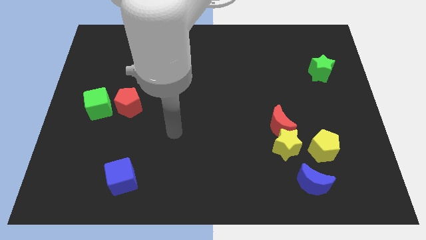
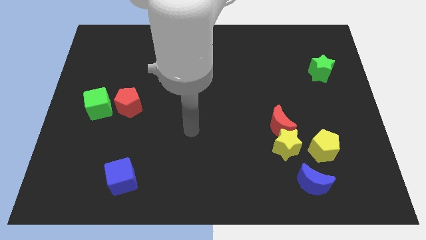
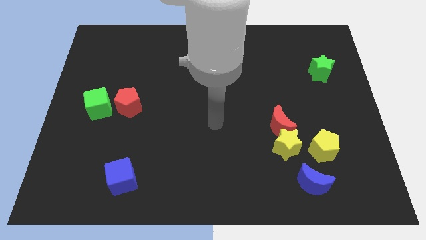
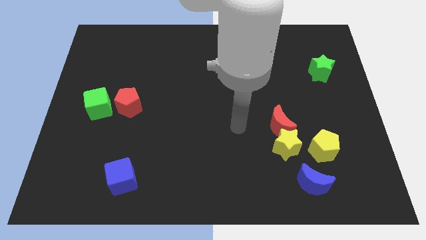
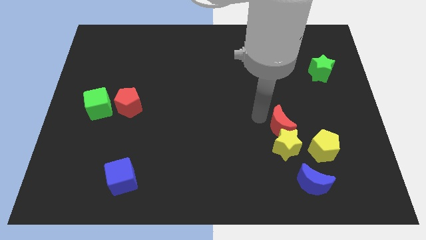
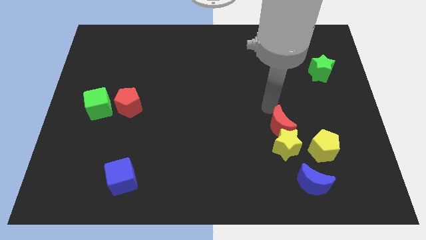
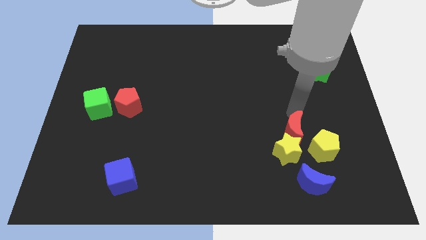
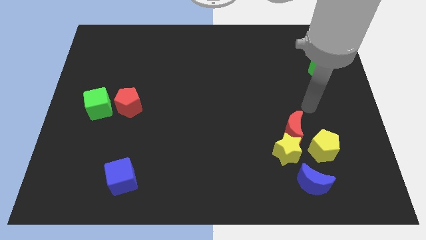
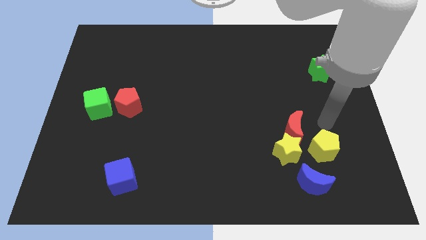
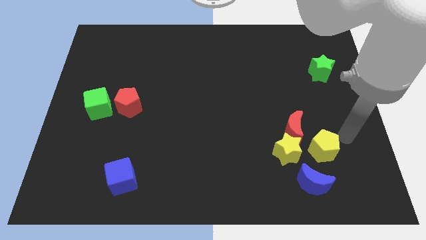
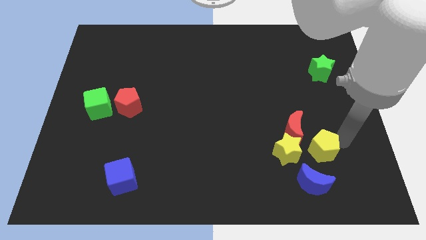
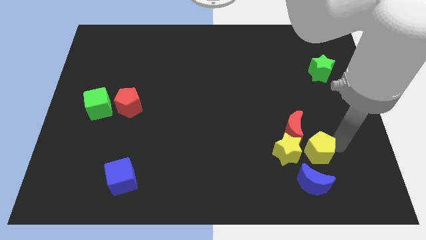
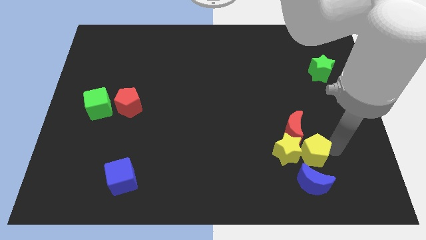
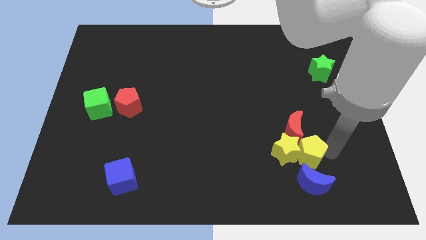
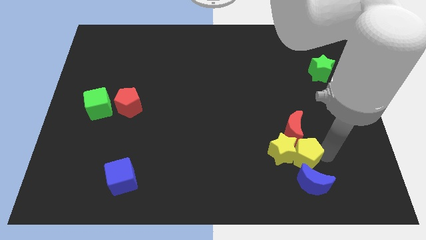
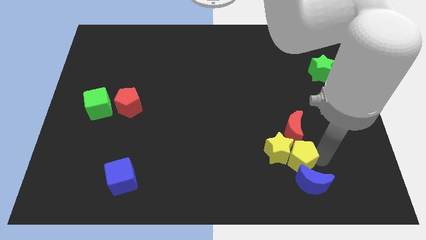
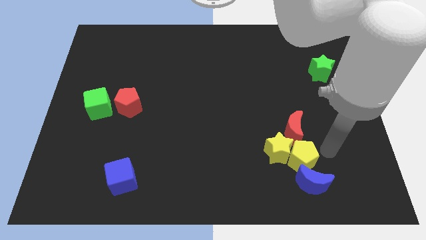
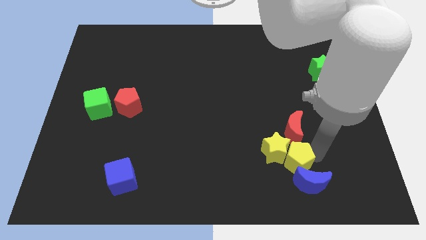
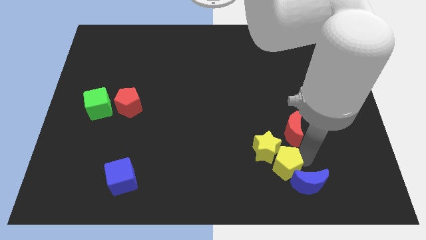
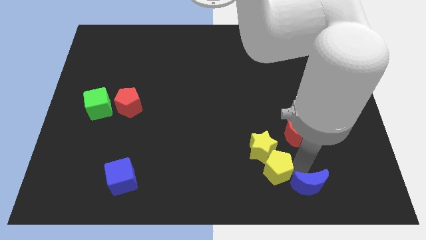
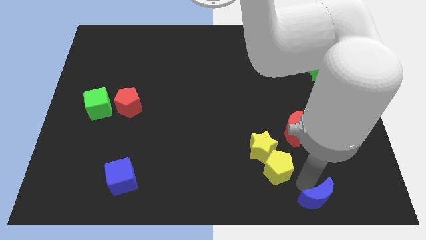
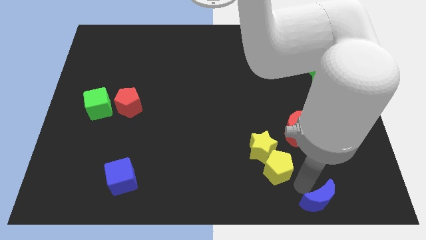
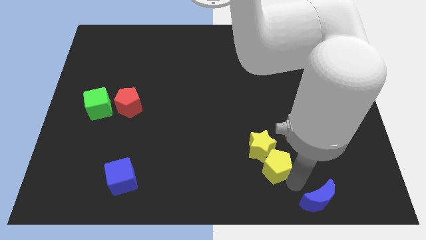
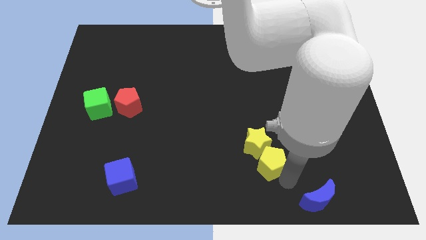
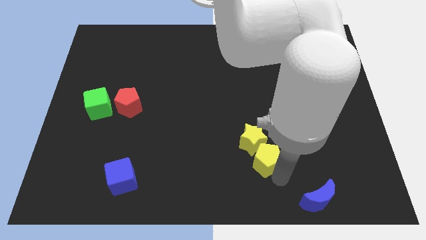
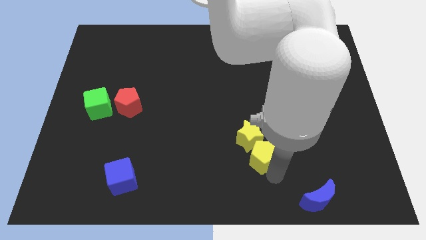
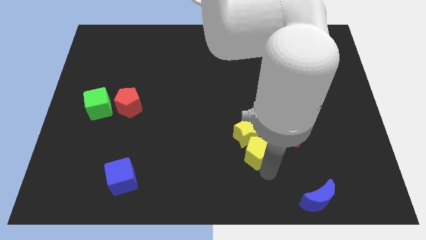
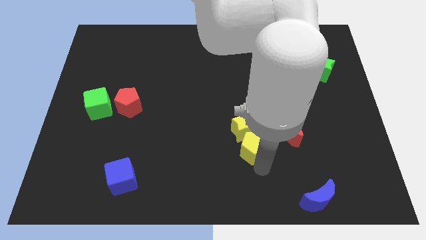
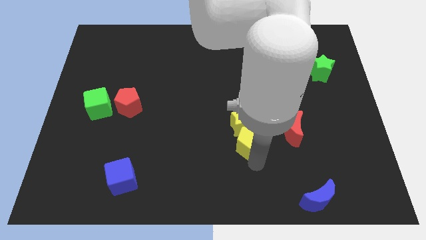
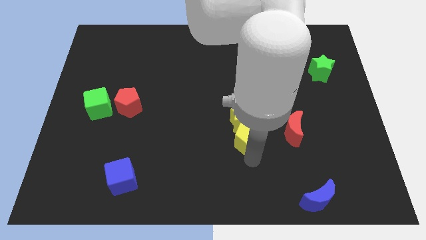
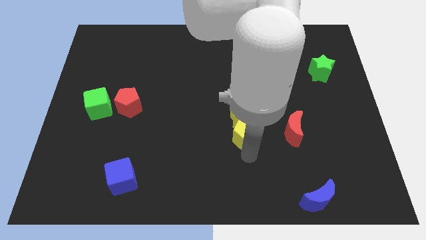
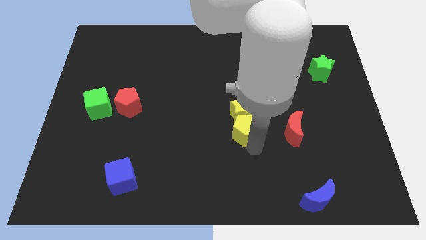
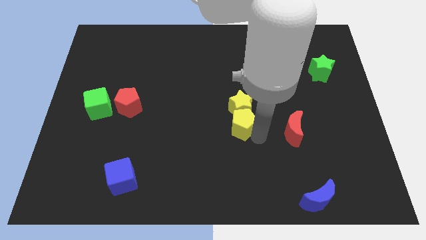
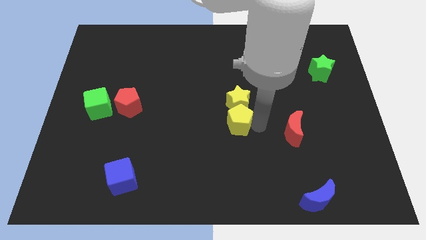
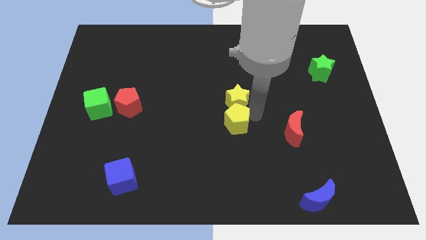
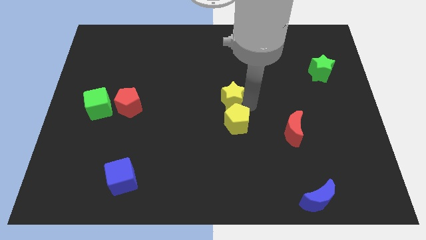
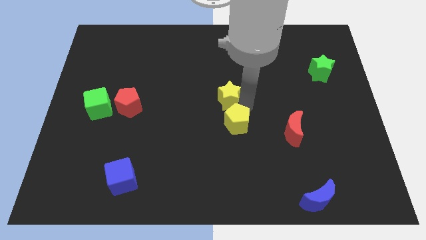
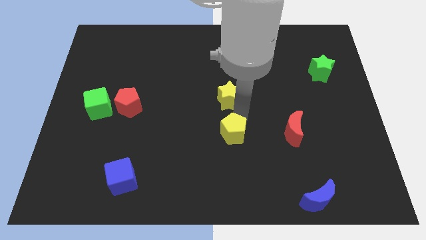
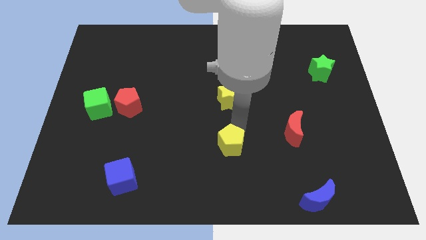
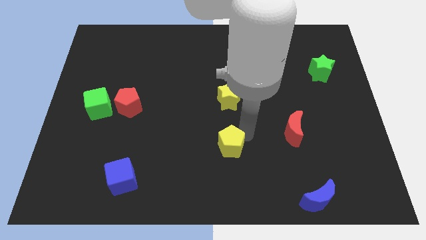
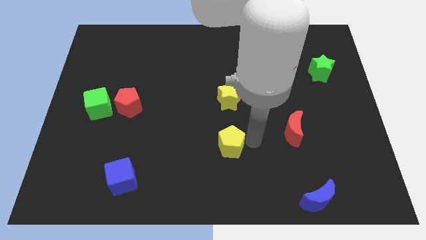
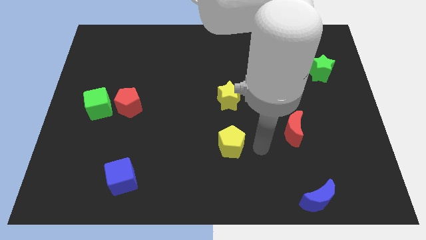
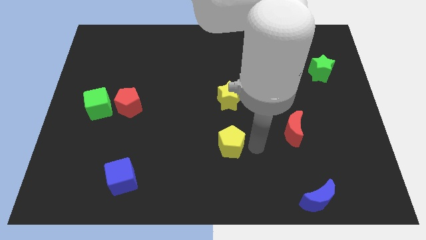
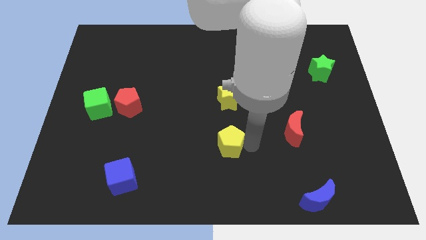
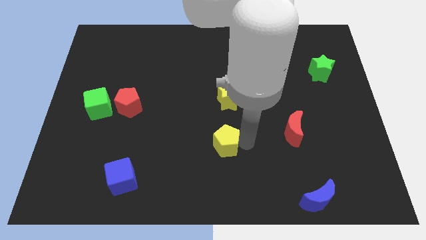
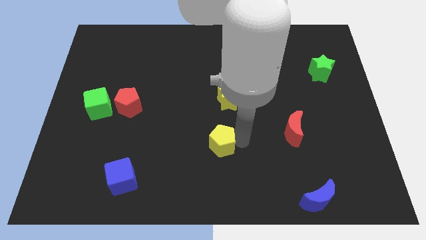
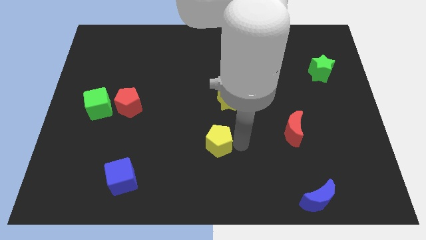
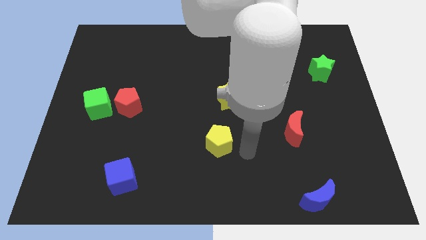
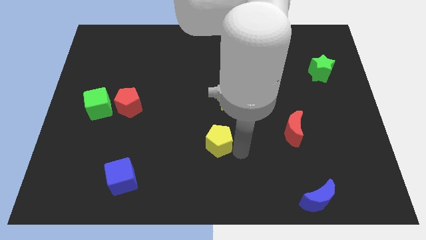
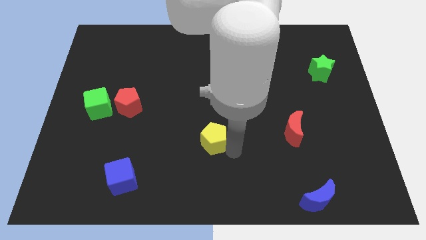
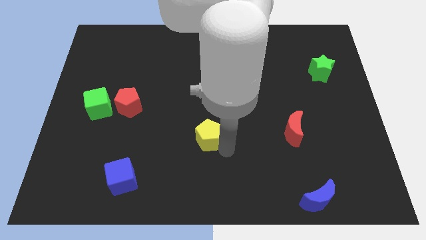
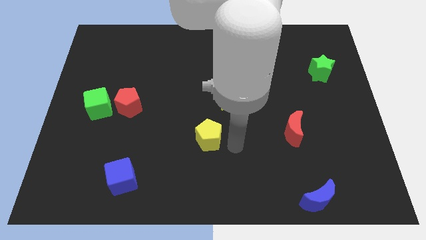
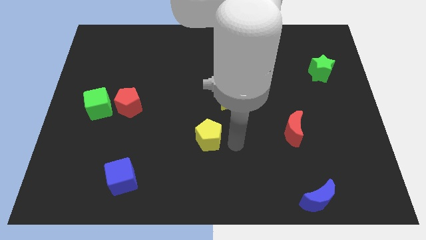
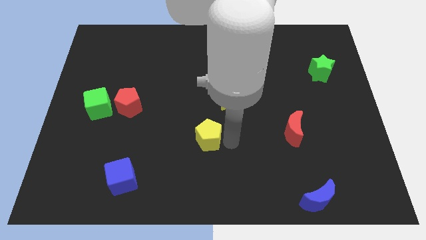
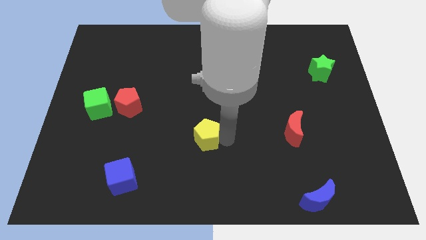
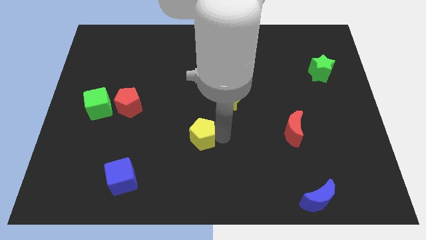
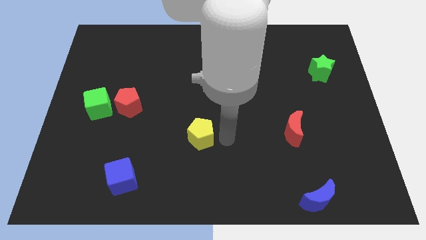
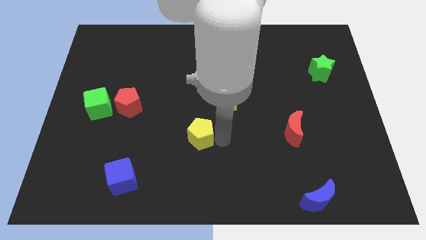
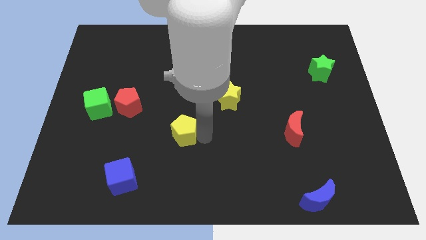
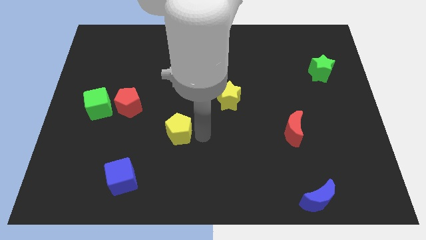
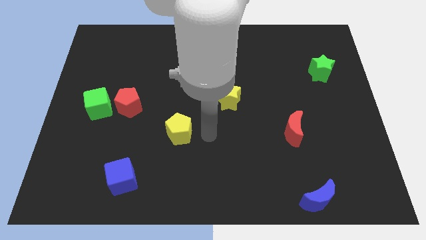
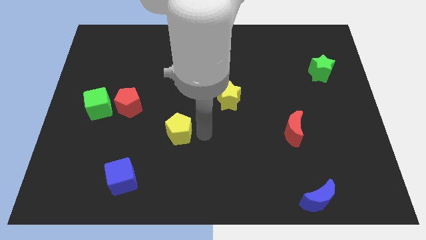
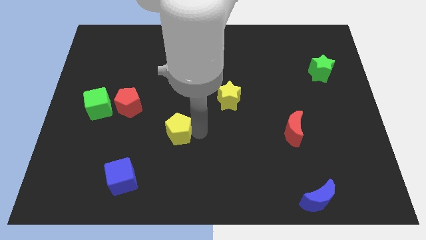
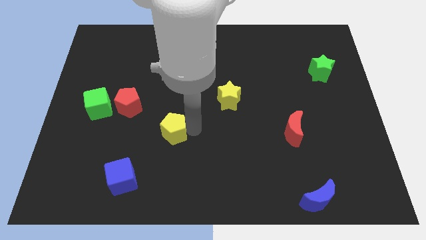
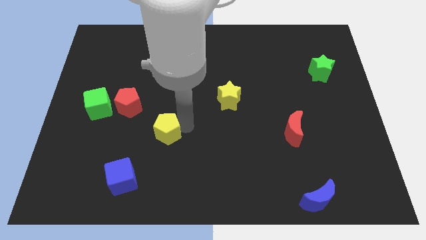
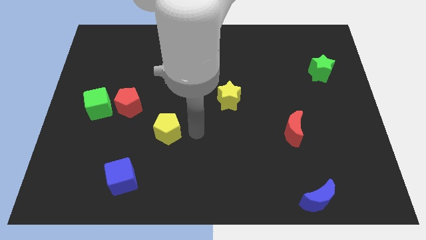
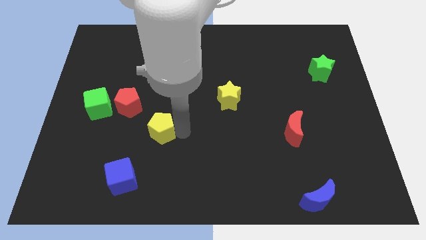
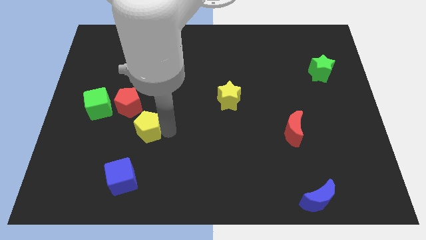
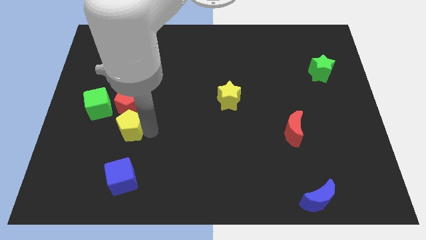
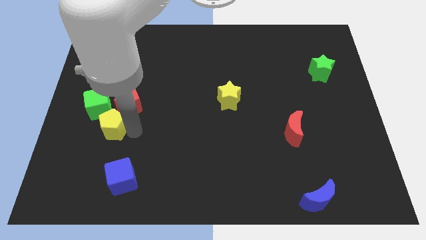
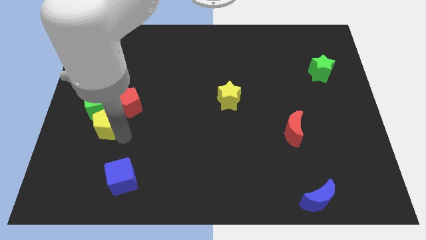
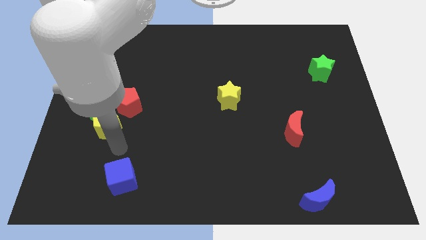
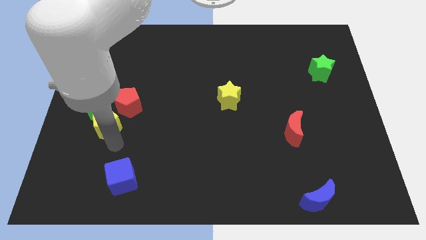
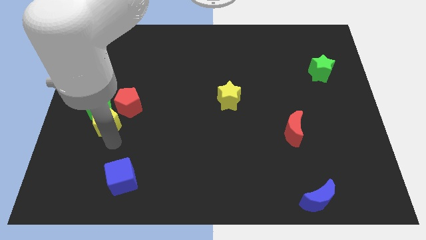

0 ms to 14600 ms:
put the yellow pentagon next to the green cube
